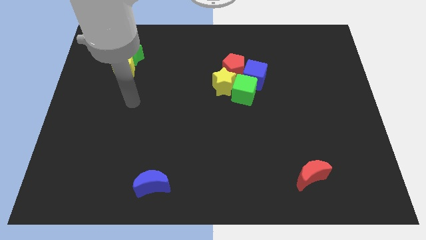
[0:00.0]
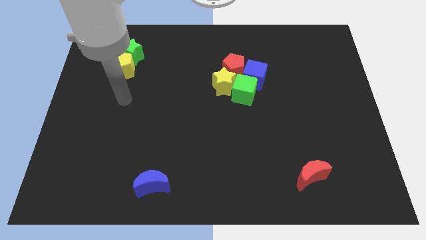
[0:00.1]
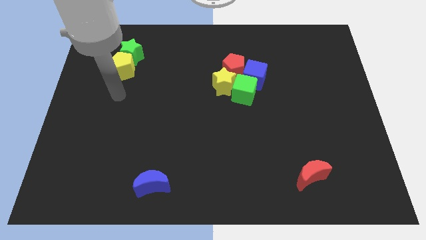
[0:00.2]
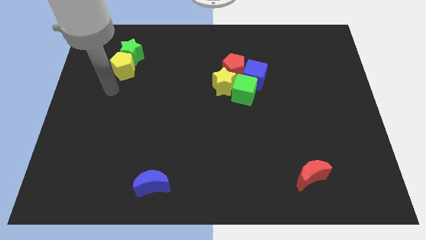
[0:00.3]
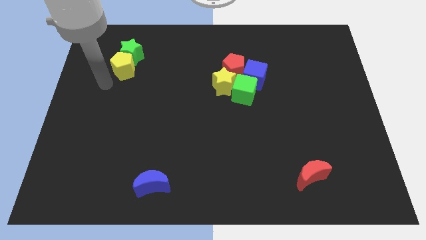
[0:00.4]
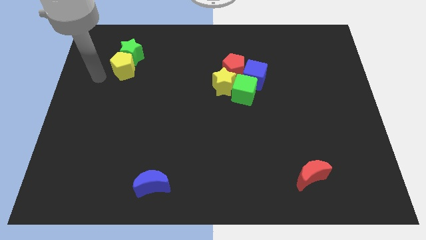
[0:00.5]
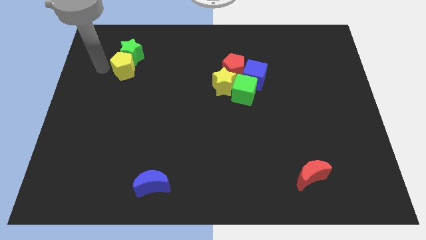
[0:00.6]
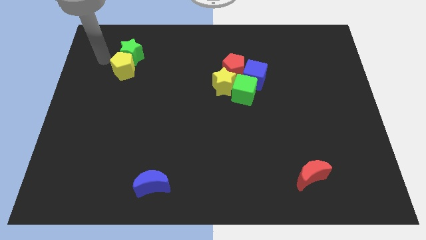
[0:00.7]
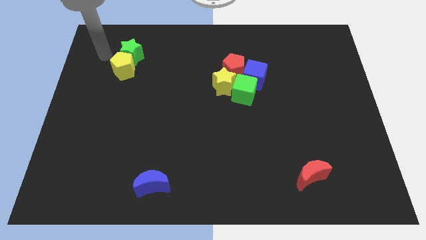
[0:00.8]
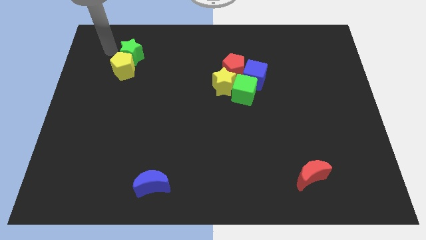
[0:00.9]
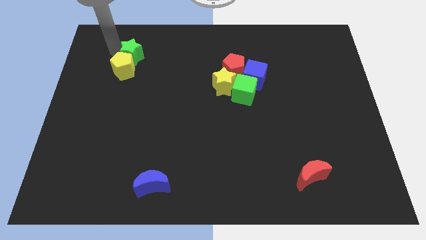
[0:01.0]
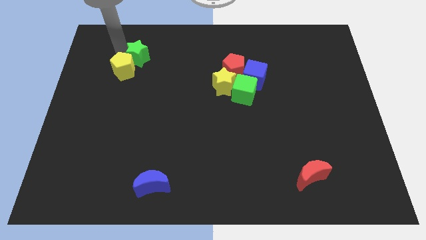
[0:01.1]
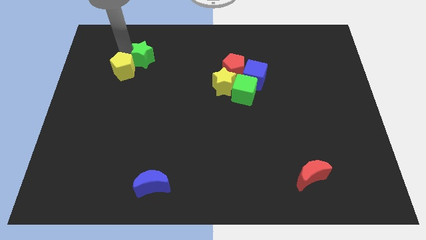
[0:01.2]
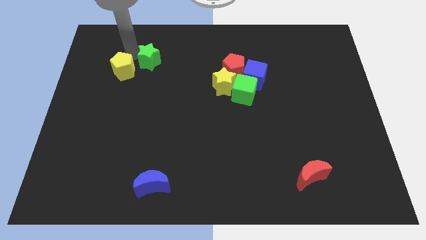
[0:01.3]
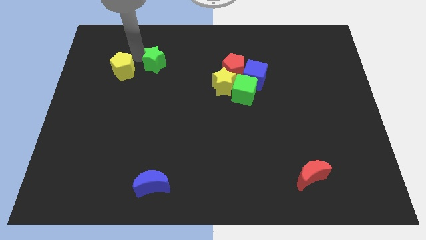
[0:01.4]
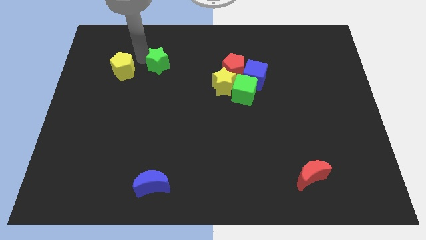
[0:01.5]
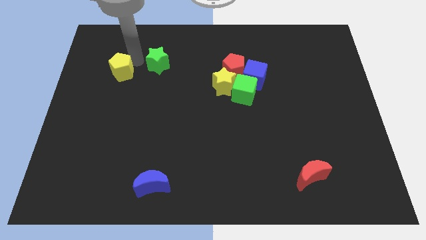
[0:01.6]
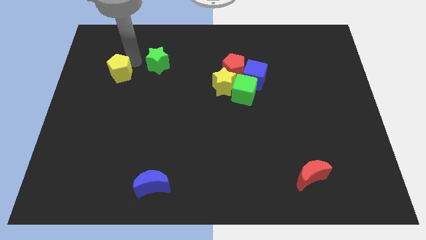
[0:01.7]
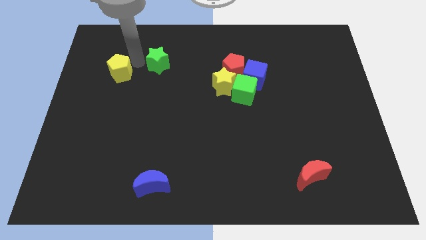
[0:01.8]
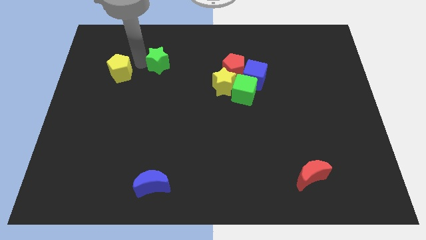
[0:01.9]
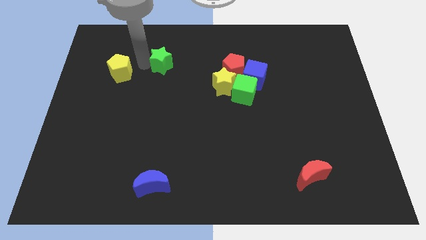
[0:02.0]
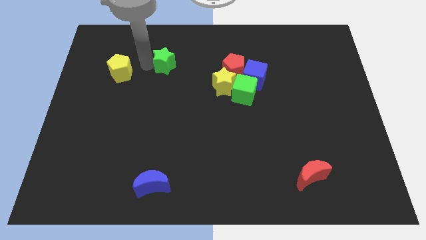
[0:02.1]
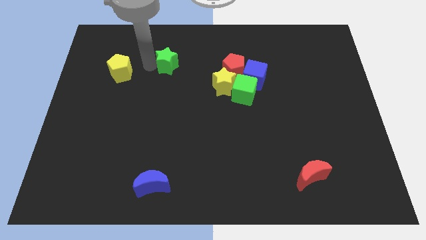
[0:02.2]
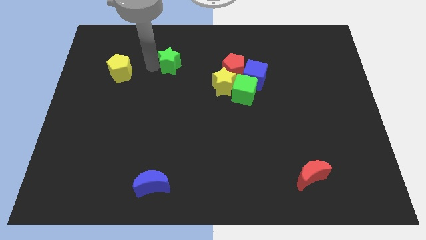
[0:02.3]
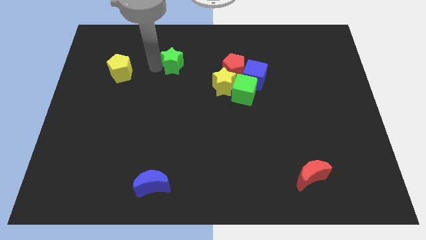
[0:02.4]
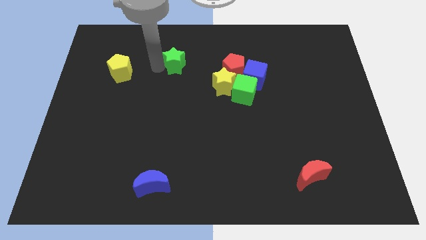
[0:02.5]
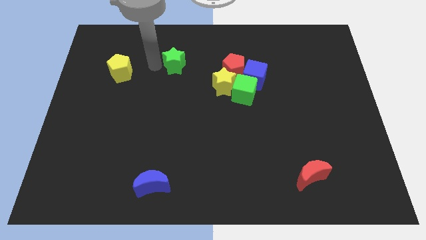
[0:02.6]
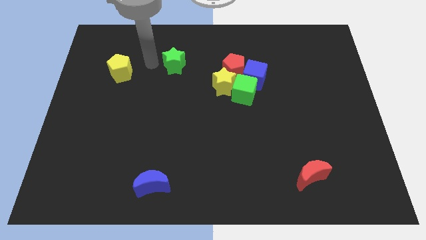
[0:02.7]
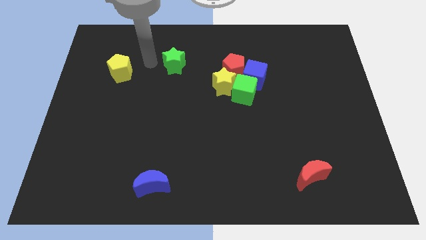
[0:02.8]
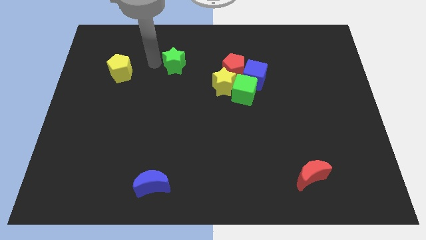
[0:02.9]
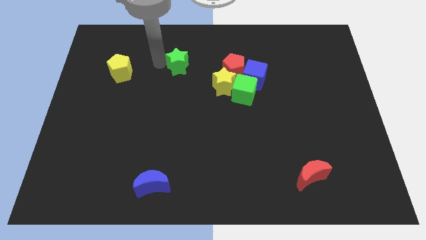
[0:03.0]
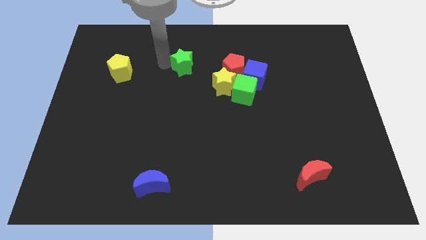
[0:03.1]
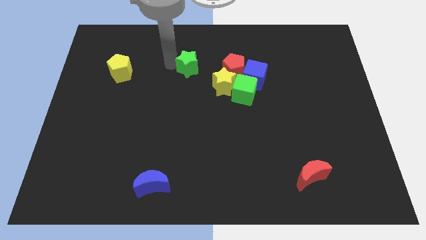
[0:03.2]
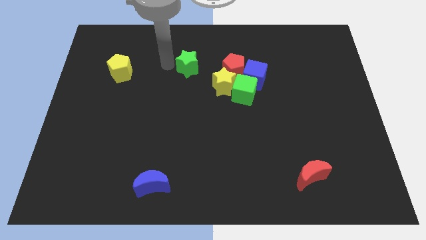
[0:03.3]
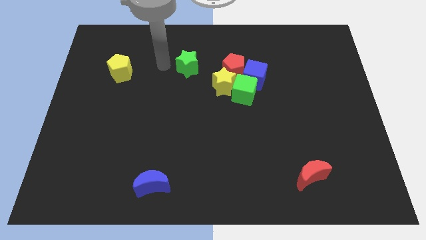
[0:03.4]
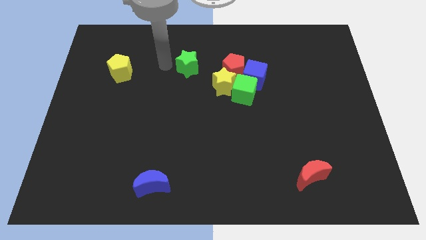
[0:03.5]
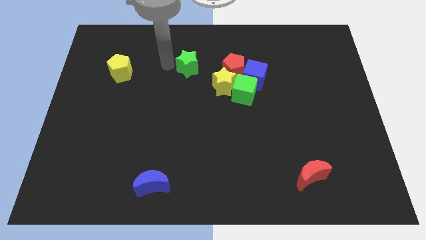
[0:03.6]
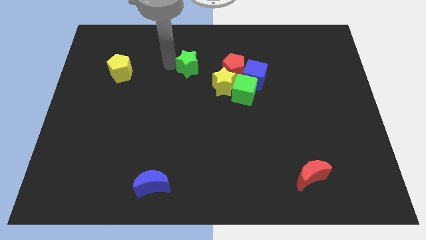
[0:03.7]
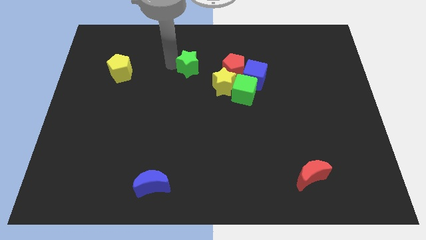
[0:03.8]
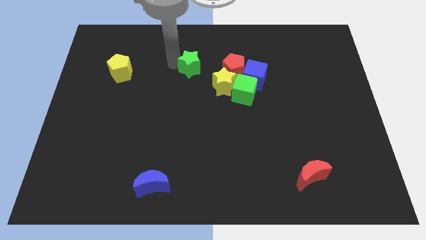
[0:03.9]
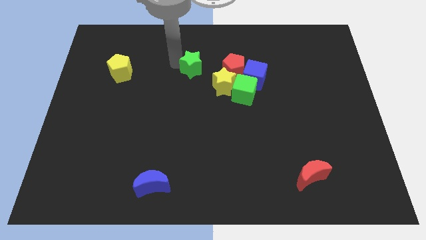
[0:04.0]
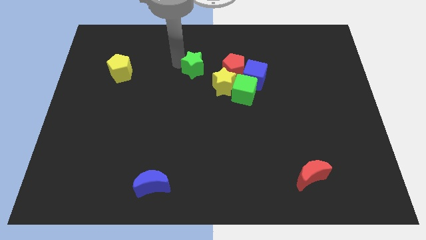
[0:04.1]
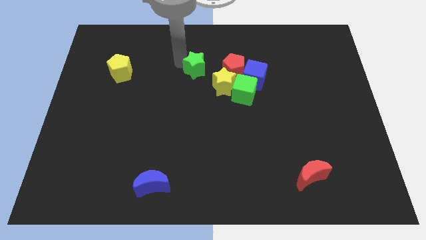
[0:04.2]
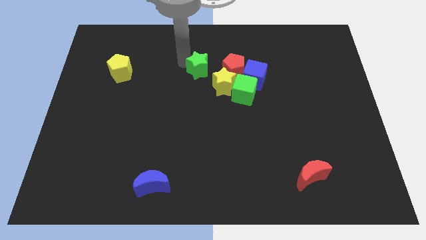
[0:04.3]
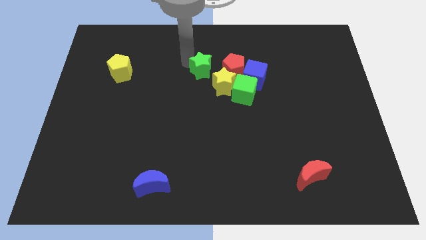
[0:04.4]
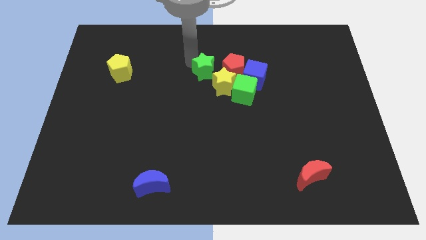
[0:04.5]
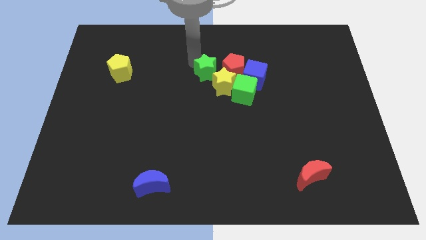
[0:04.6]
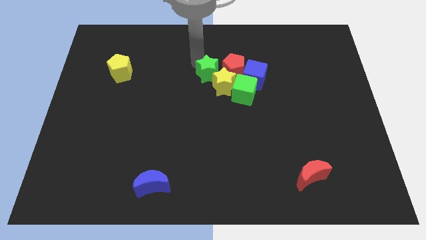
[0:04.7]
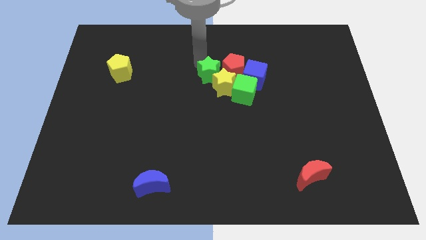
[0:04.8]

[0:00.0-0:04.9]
push the green star close to the red pentagon

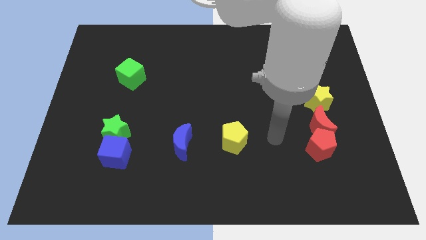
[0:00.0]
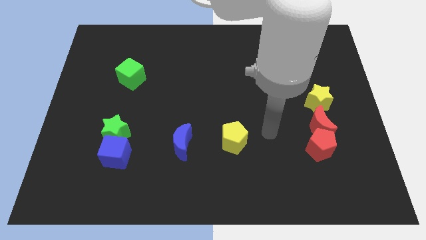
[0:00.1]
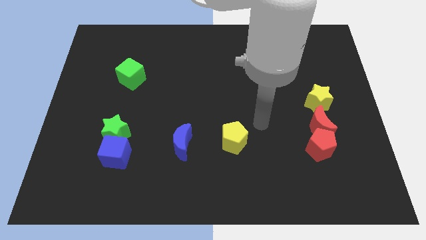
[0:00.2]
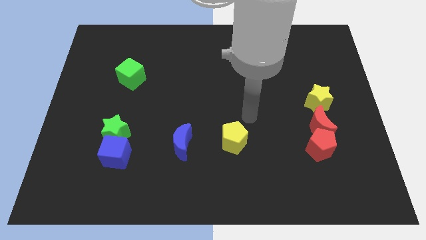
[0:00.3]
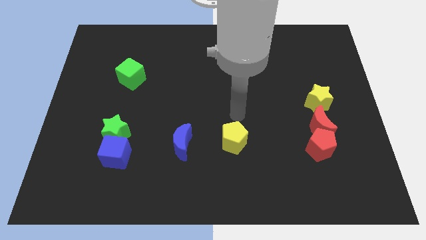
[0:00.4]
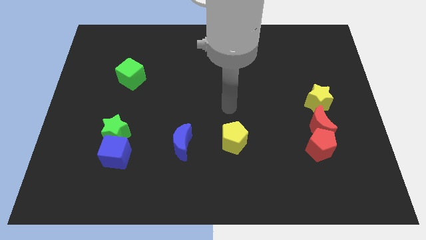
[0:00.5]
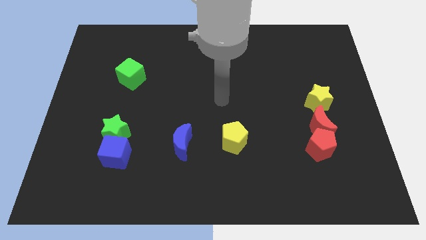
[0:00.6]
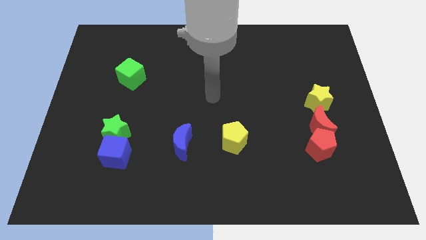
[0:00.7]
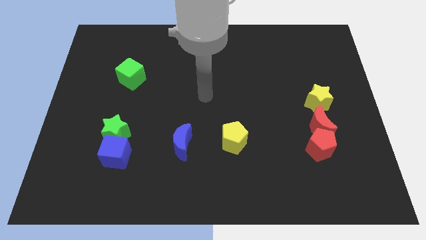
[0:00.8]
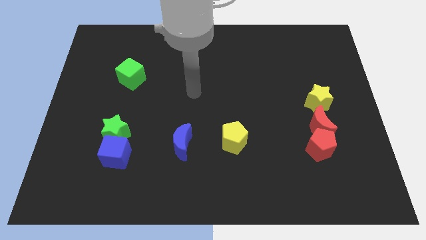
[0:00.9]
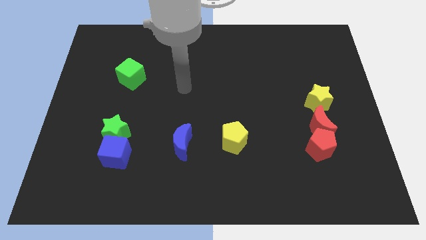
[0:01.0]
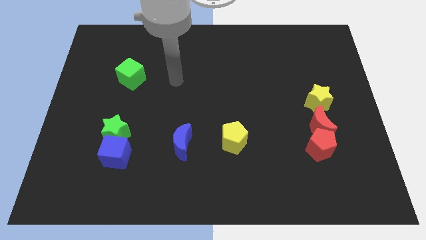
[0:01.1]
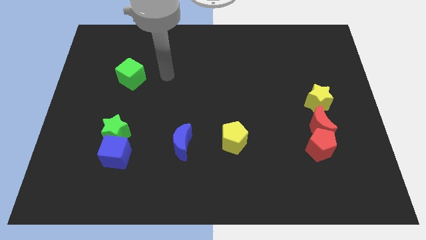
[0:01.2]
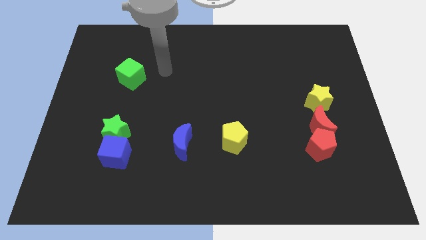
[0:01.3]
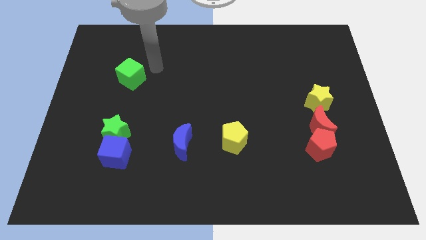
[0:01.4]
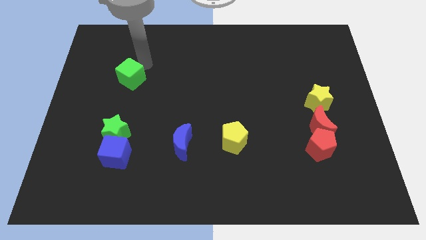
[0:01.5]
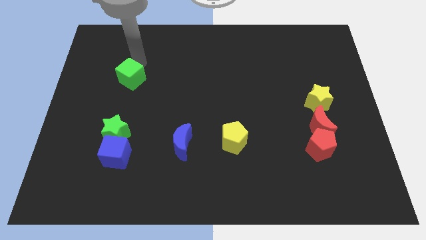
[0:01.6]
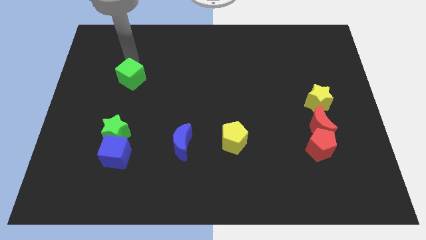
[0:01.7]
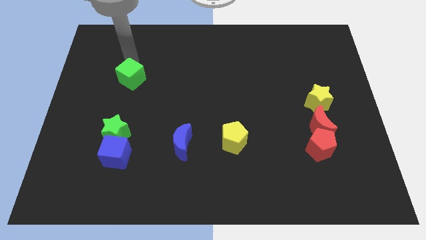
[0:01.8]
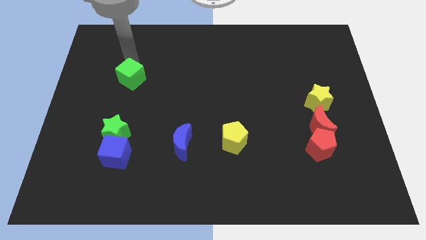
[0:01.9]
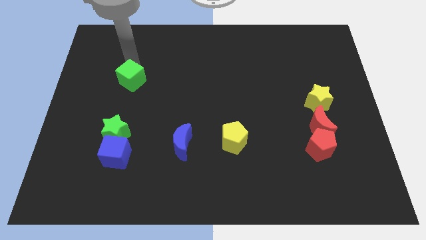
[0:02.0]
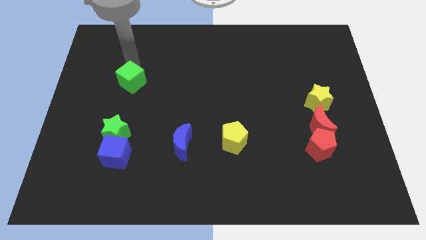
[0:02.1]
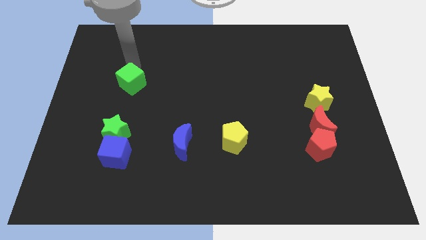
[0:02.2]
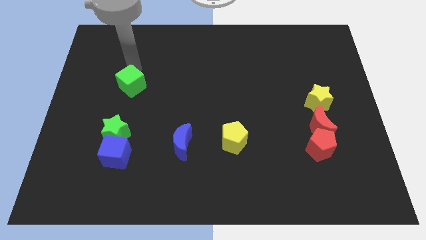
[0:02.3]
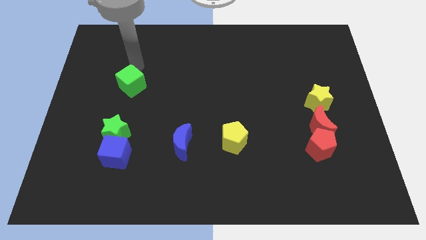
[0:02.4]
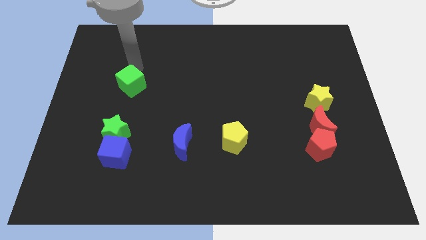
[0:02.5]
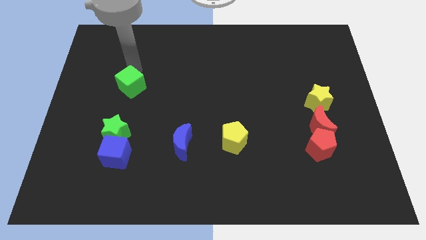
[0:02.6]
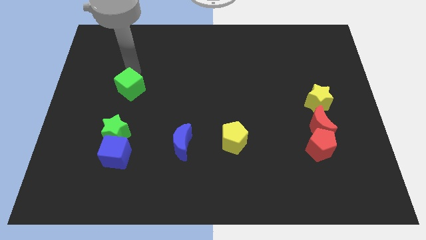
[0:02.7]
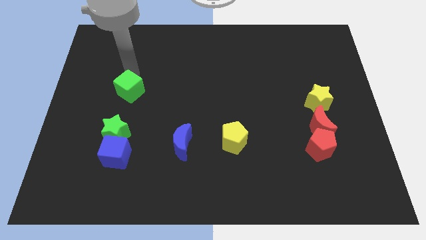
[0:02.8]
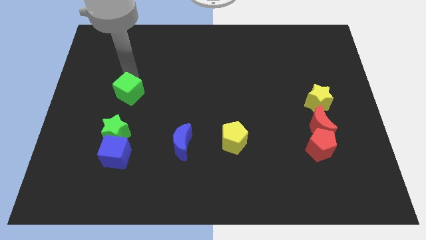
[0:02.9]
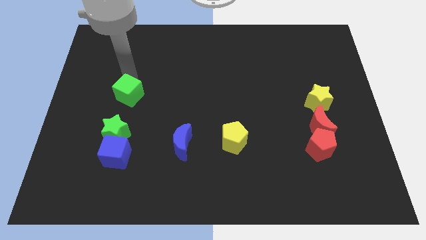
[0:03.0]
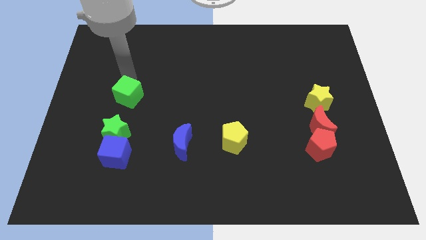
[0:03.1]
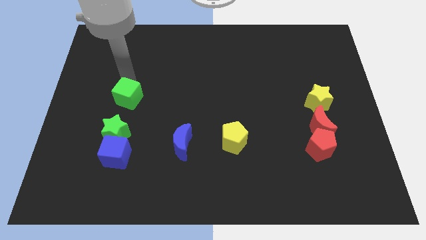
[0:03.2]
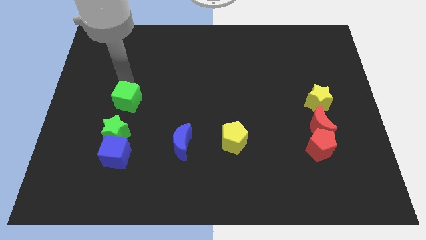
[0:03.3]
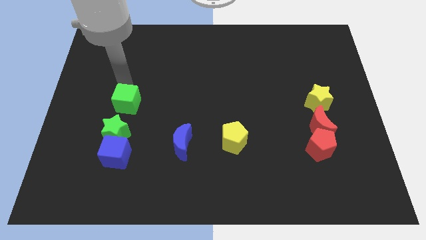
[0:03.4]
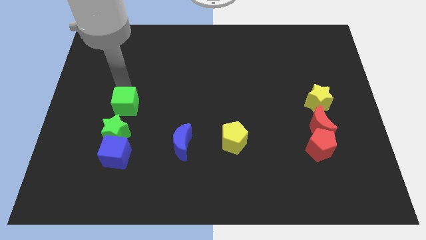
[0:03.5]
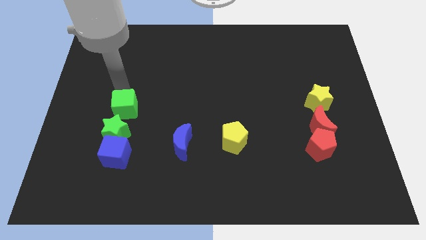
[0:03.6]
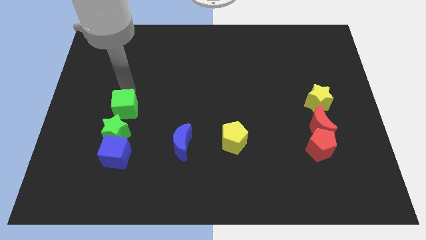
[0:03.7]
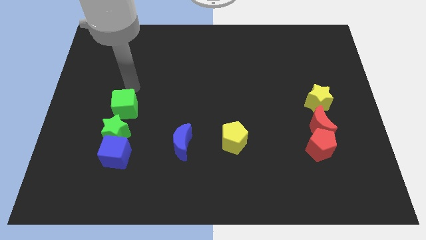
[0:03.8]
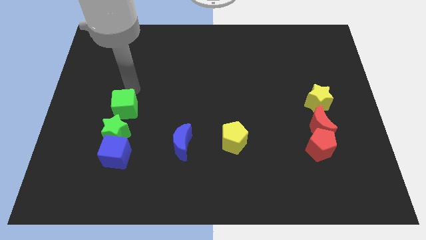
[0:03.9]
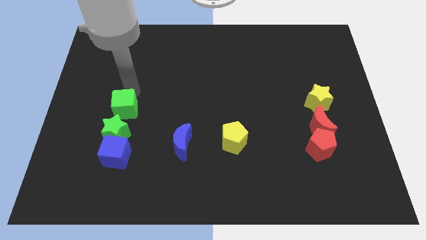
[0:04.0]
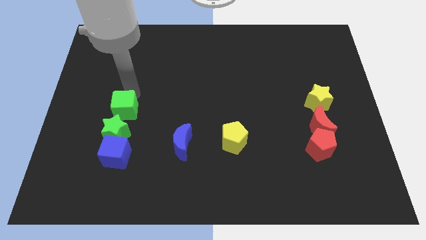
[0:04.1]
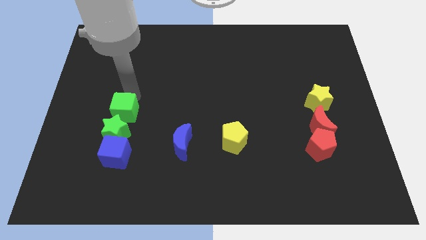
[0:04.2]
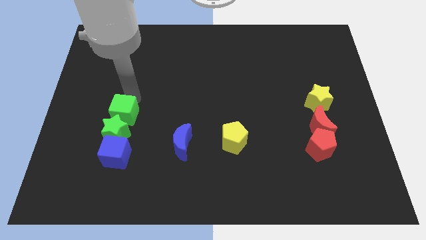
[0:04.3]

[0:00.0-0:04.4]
put the green cube close to the green star
